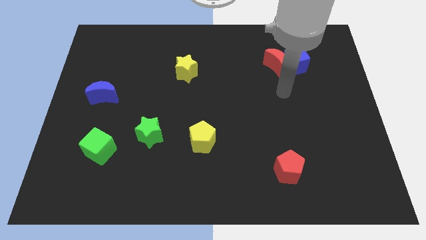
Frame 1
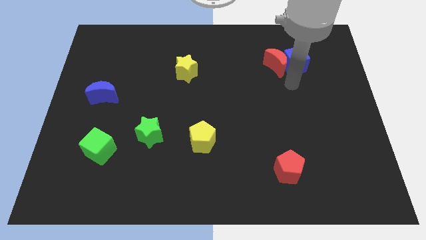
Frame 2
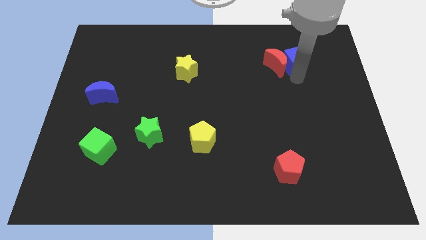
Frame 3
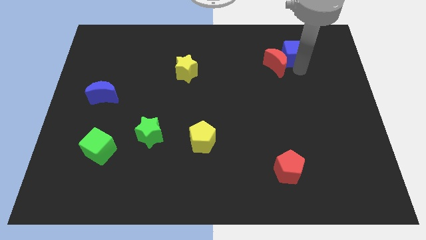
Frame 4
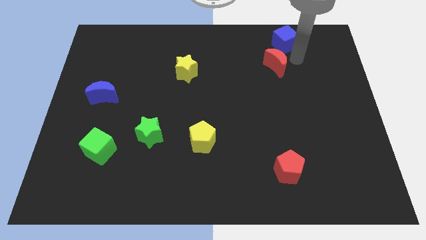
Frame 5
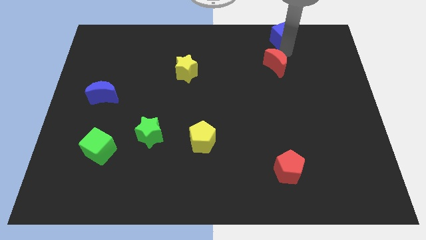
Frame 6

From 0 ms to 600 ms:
pull the red moon apart from the blue cube

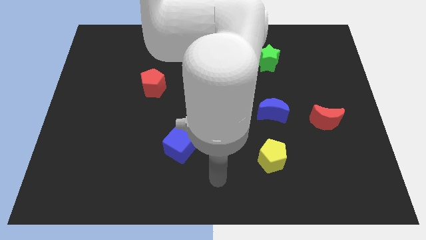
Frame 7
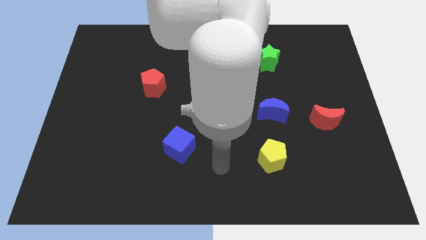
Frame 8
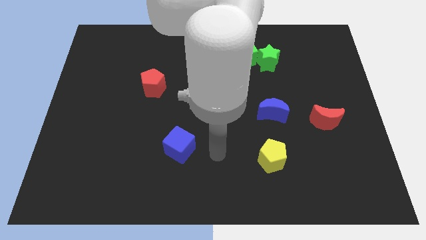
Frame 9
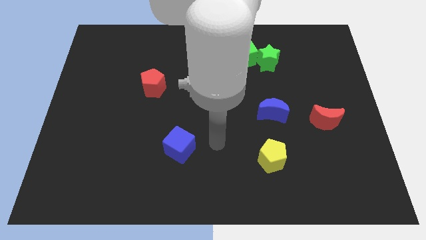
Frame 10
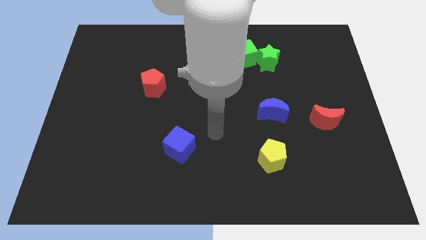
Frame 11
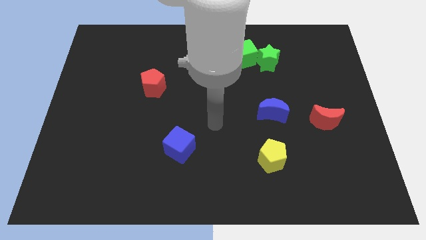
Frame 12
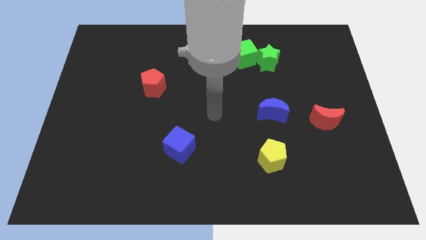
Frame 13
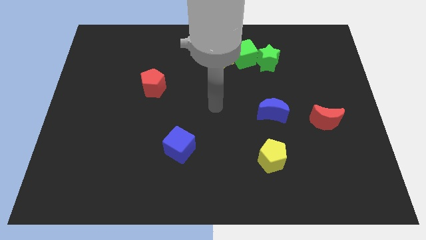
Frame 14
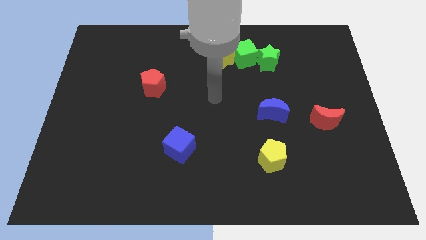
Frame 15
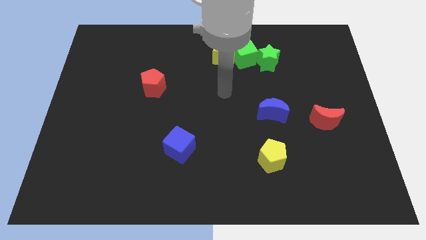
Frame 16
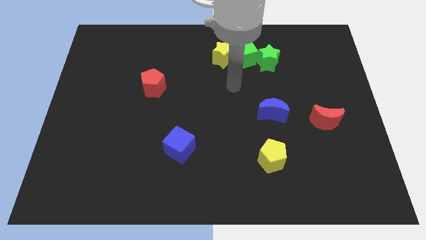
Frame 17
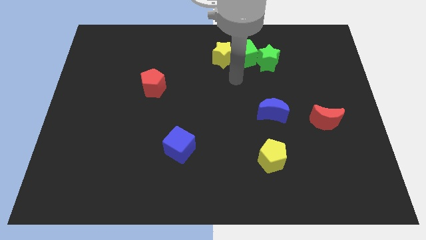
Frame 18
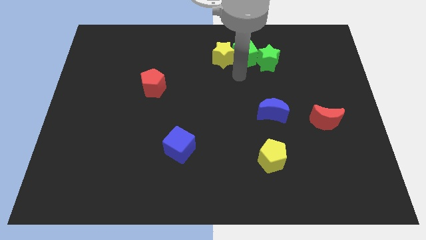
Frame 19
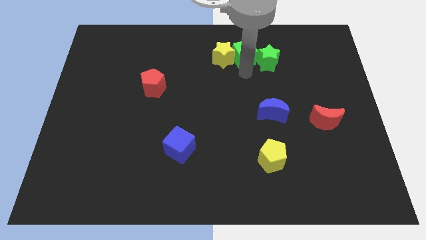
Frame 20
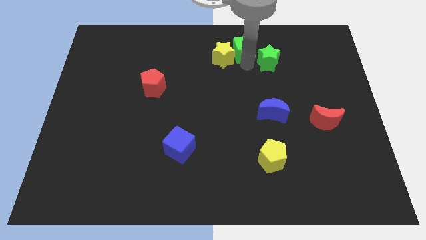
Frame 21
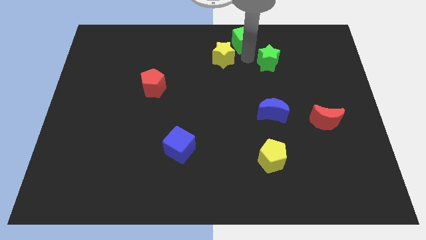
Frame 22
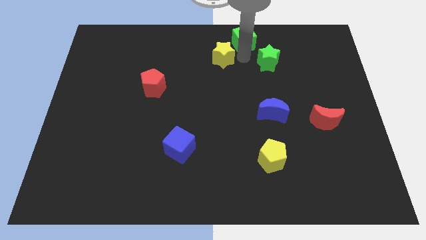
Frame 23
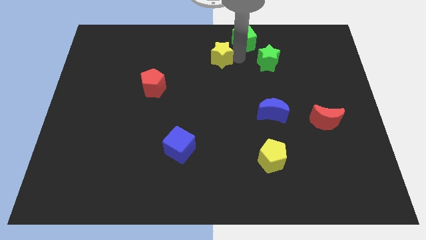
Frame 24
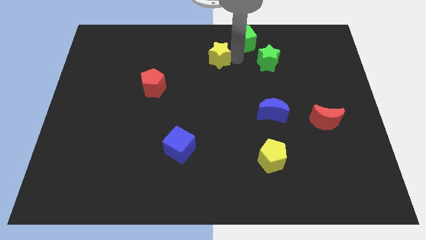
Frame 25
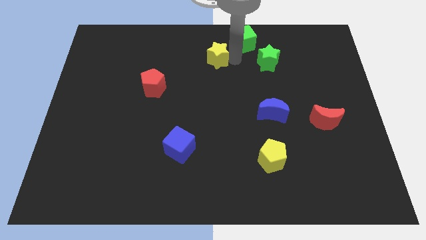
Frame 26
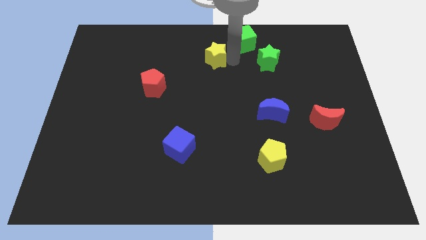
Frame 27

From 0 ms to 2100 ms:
pull the yellow star apart from the green cube

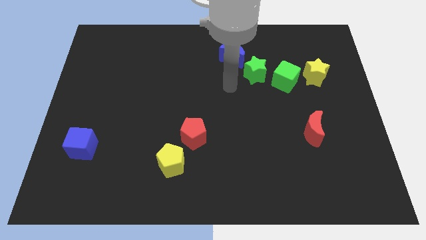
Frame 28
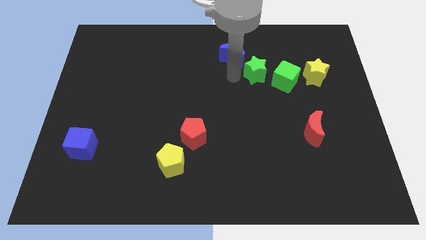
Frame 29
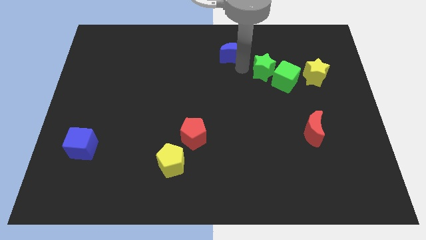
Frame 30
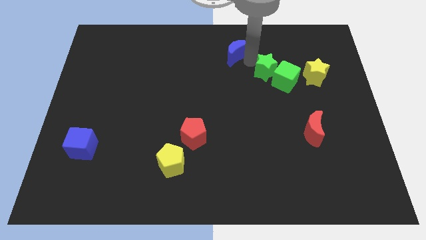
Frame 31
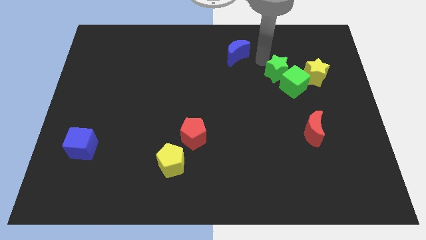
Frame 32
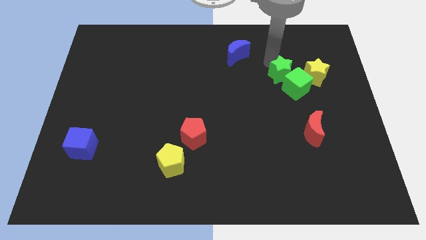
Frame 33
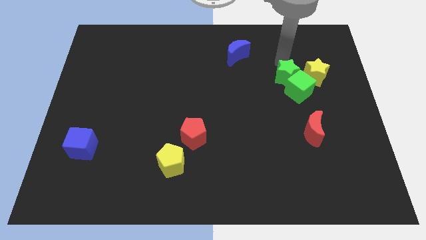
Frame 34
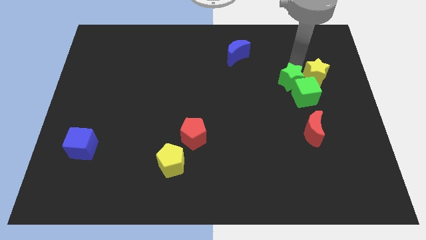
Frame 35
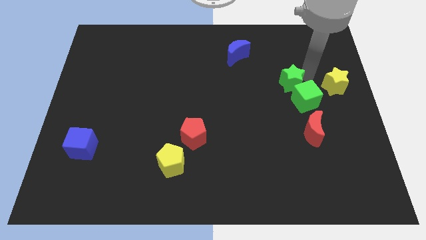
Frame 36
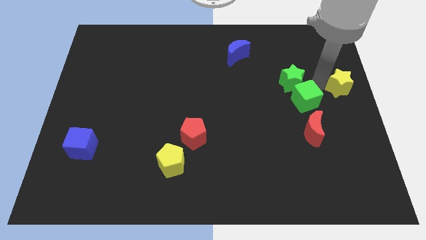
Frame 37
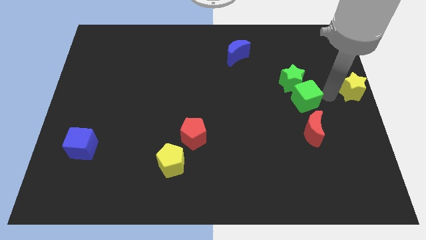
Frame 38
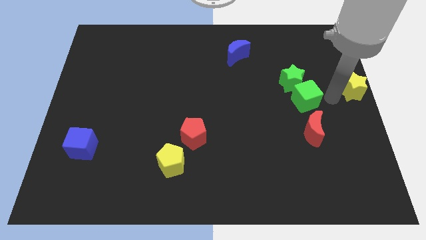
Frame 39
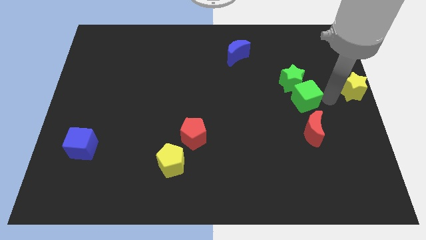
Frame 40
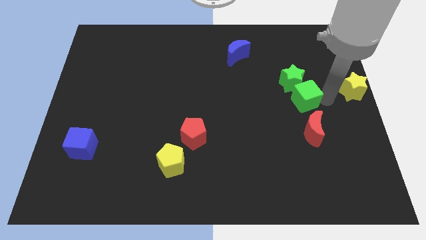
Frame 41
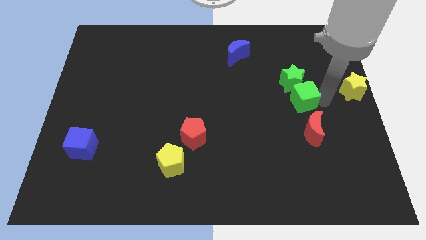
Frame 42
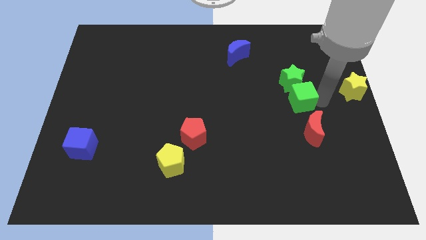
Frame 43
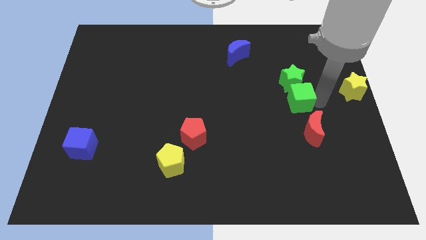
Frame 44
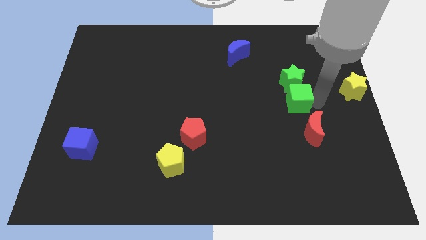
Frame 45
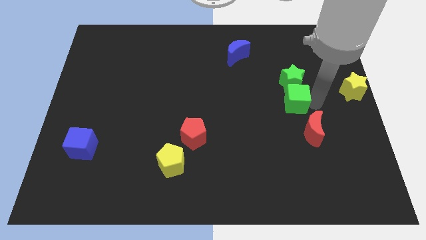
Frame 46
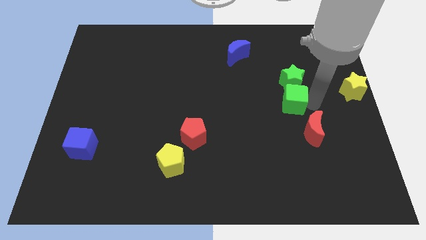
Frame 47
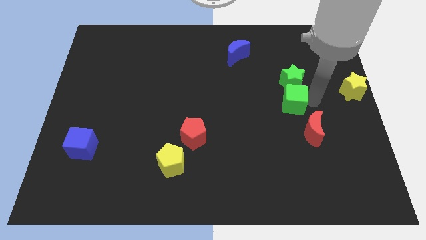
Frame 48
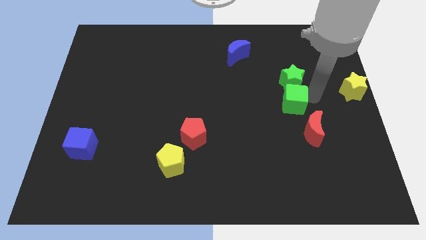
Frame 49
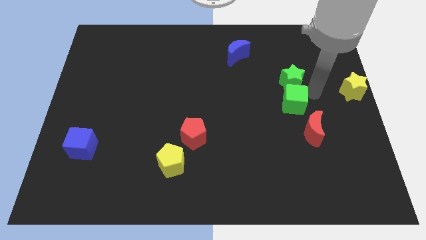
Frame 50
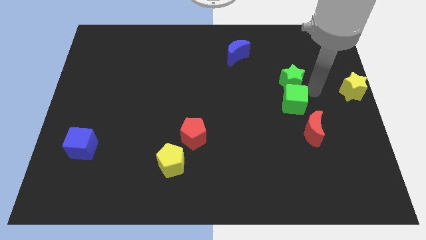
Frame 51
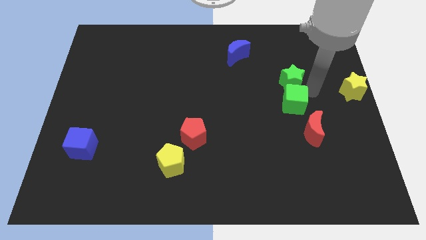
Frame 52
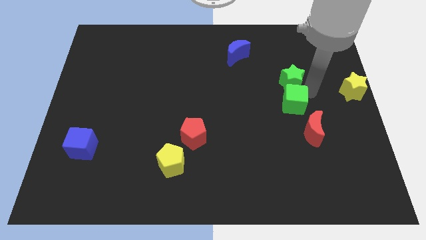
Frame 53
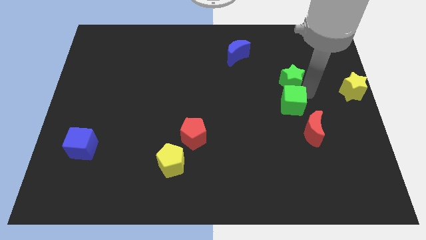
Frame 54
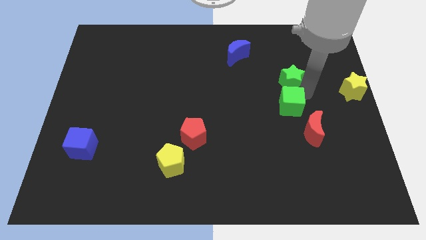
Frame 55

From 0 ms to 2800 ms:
separate the green cube from the green star and yellow star

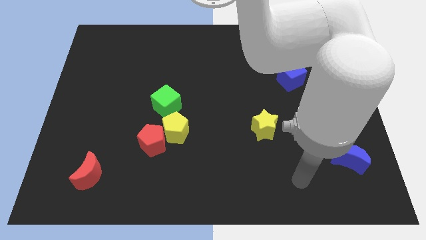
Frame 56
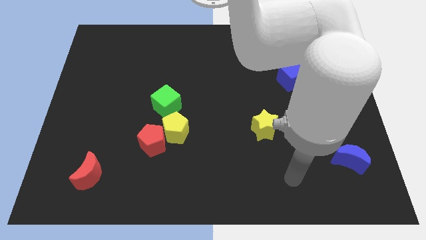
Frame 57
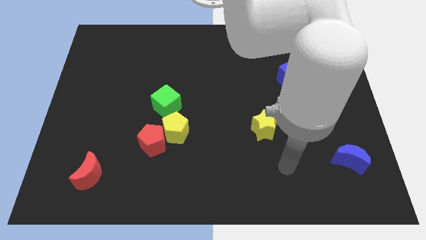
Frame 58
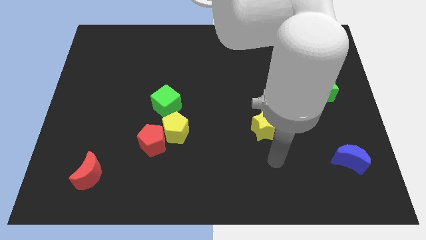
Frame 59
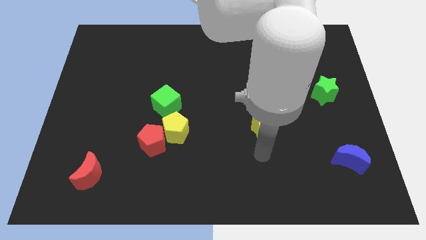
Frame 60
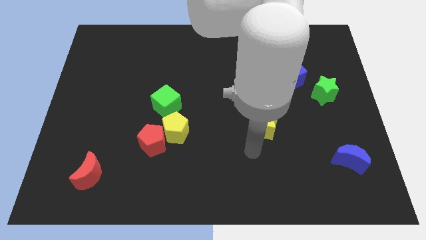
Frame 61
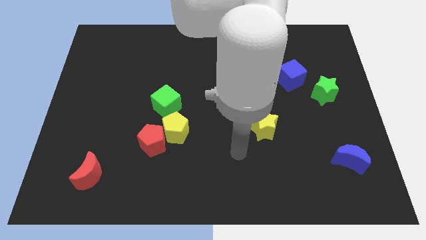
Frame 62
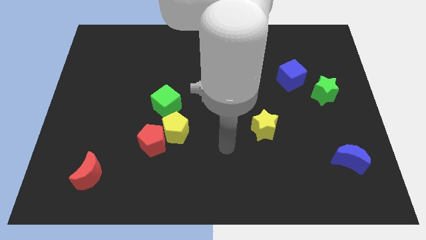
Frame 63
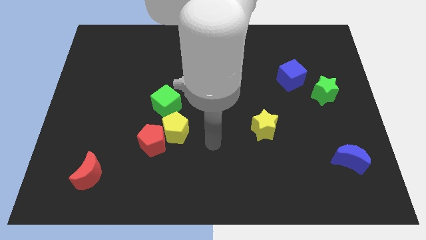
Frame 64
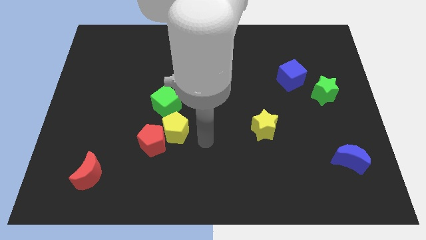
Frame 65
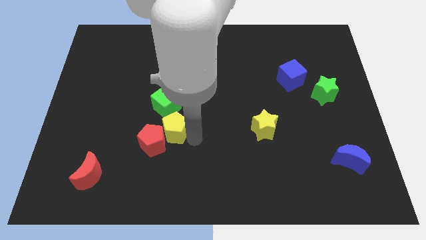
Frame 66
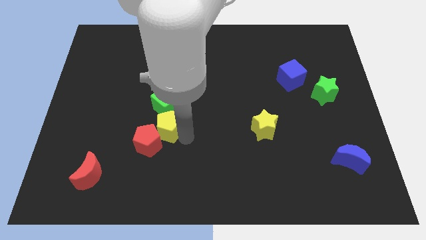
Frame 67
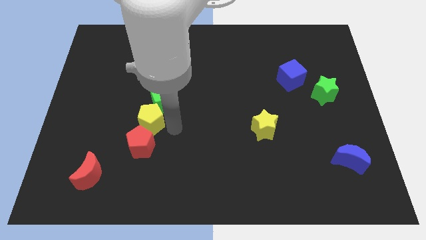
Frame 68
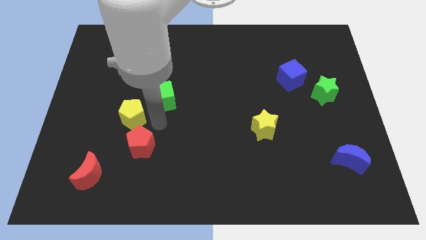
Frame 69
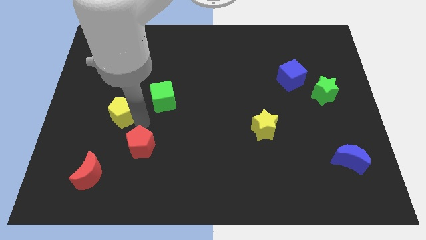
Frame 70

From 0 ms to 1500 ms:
move the red pentagon away from the yellow pentagon

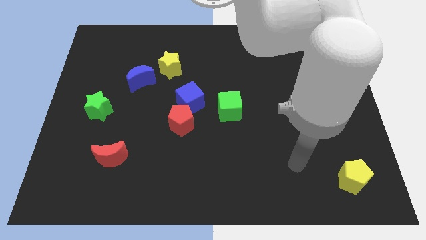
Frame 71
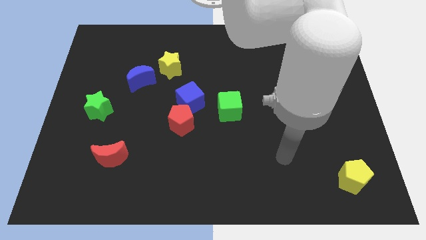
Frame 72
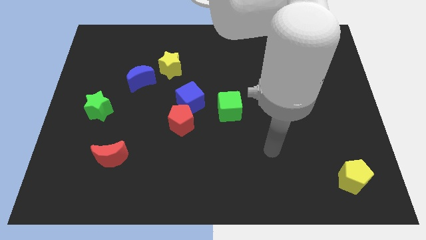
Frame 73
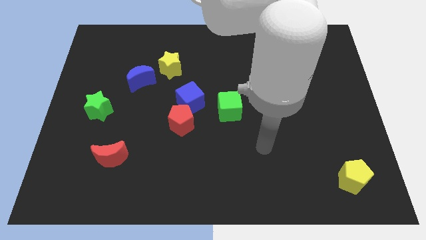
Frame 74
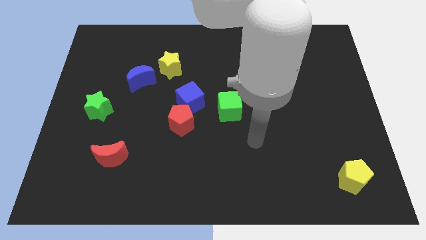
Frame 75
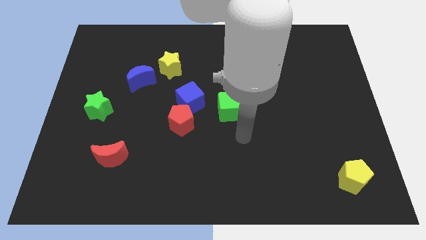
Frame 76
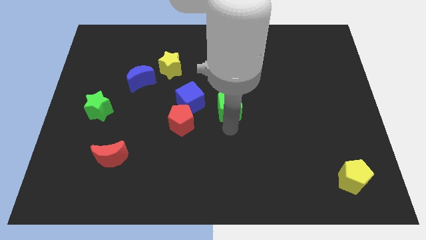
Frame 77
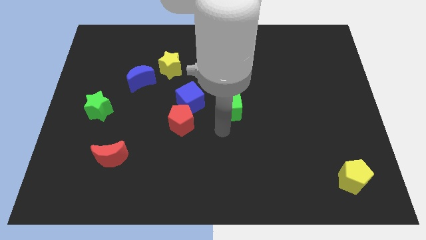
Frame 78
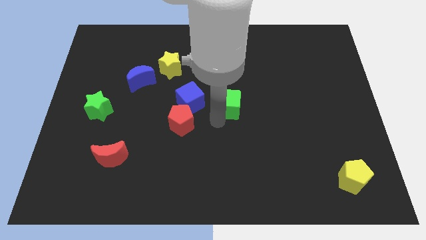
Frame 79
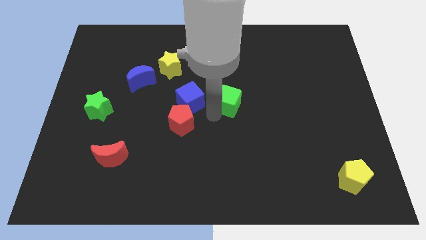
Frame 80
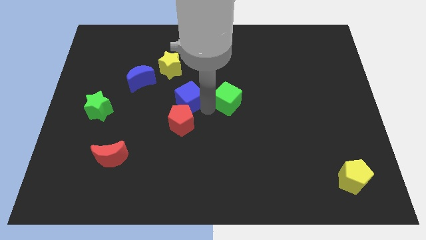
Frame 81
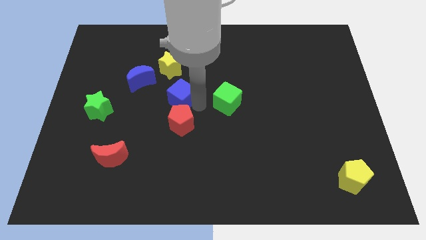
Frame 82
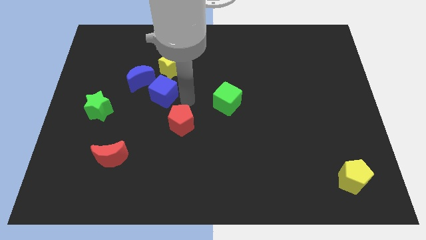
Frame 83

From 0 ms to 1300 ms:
separate the red pentagon from the blue cube

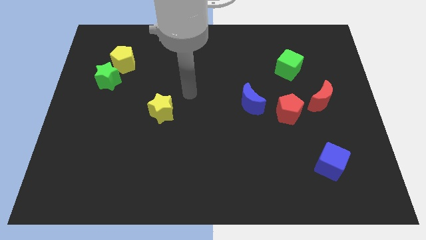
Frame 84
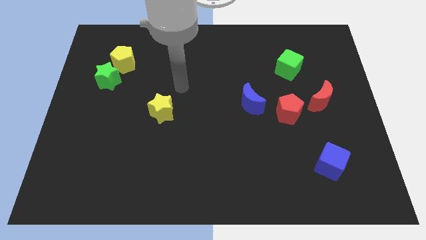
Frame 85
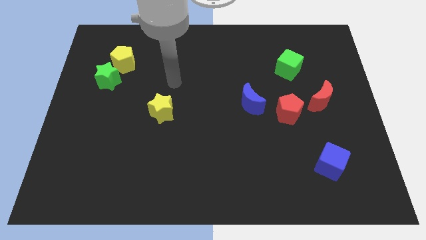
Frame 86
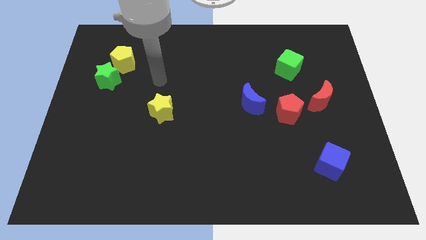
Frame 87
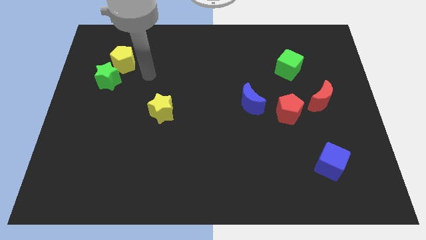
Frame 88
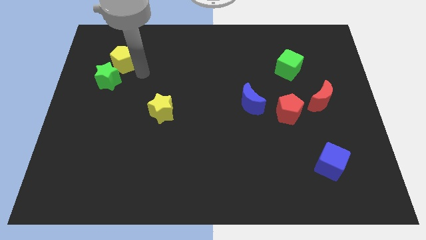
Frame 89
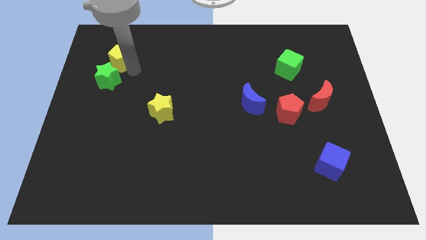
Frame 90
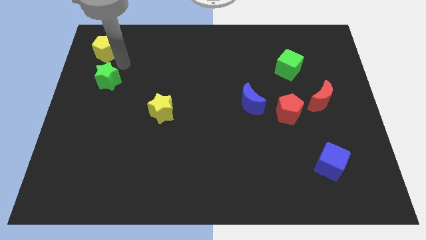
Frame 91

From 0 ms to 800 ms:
move the green star away from the yellow pentagon

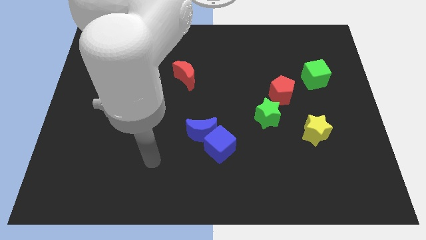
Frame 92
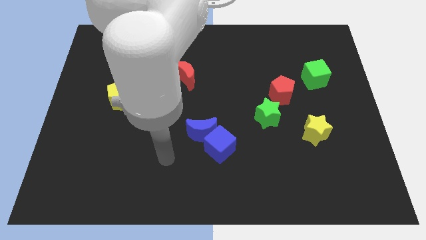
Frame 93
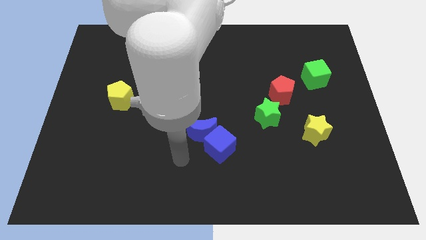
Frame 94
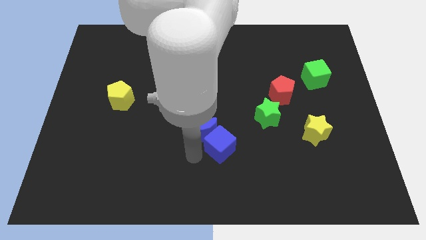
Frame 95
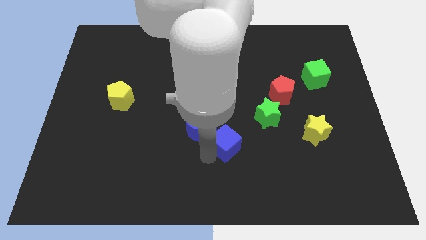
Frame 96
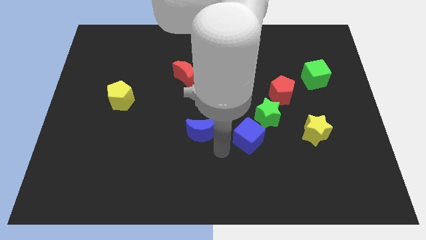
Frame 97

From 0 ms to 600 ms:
move the blue moon away from the blue cube
